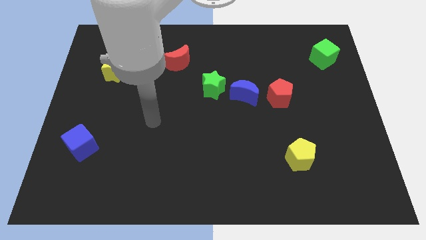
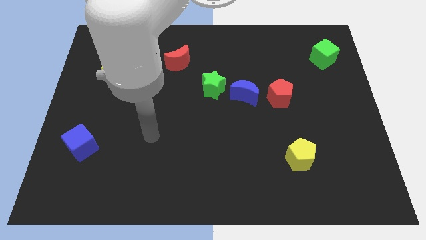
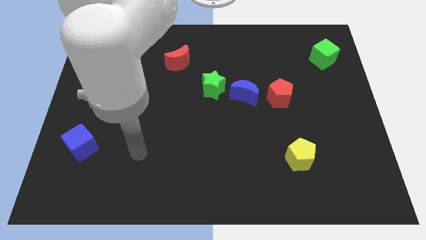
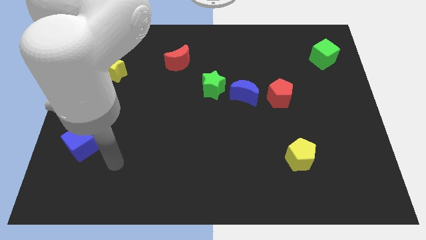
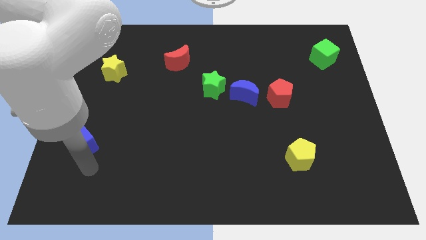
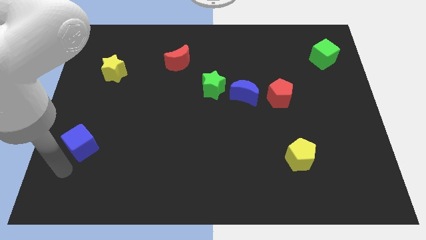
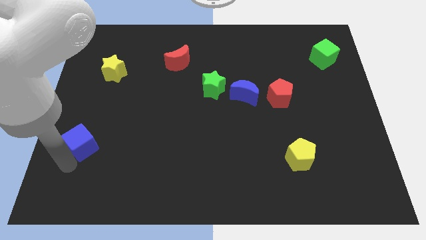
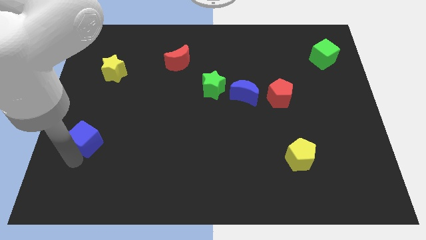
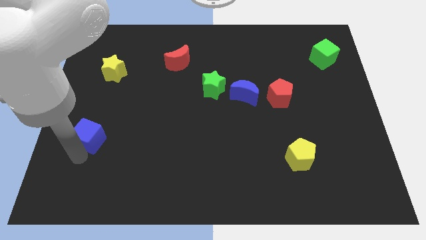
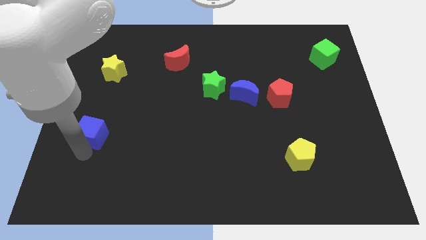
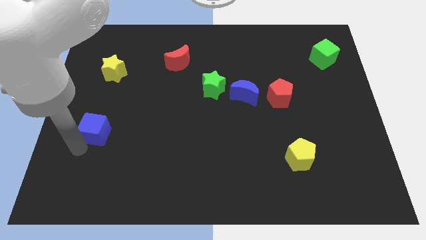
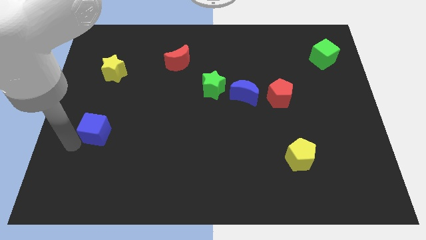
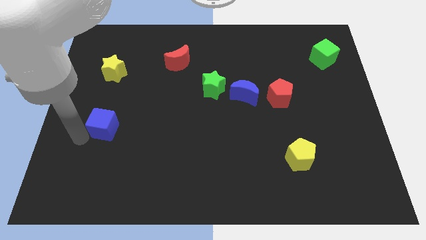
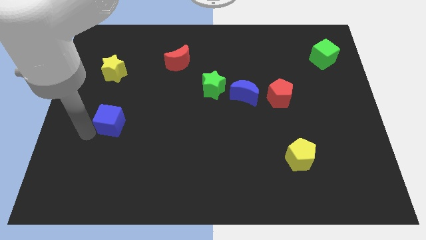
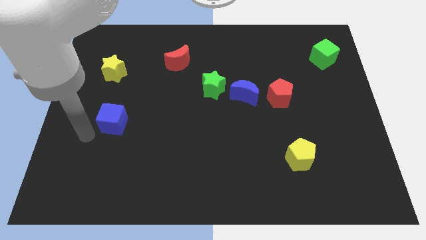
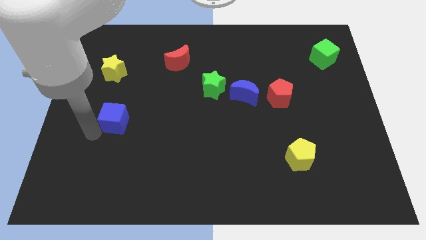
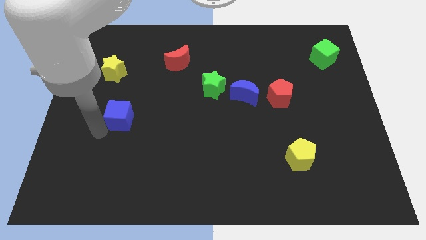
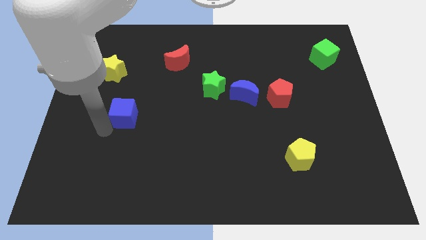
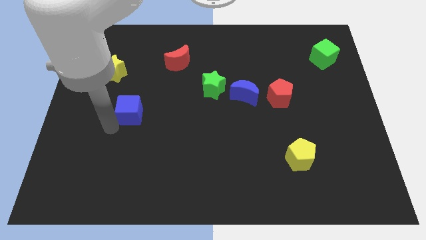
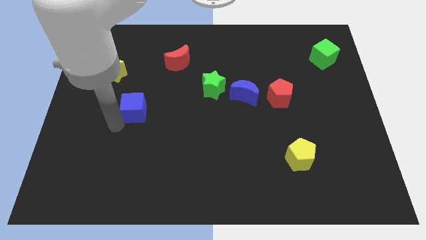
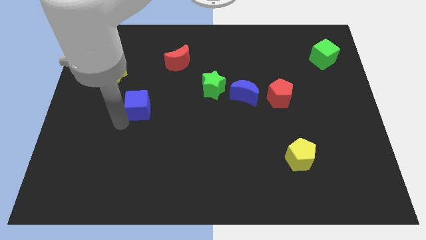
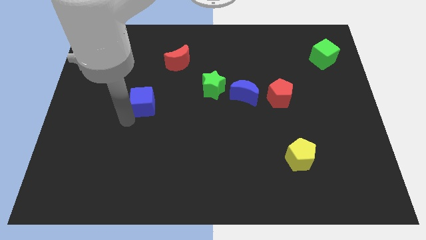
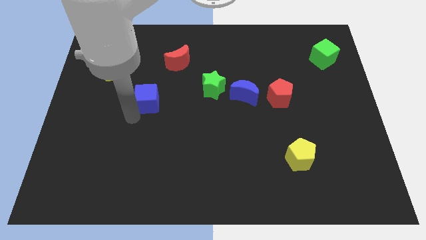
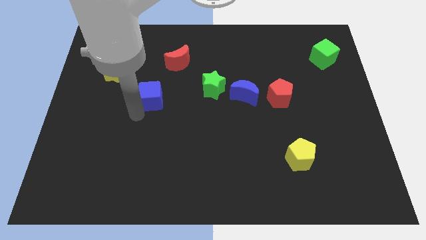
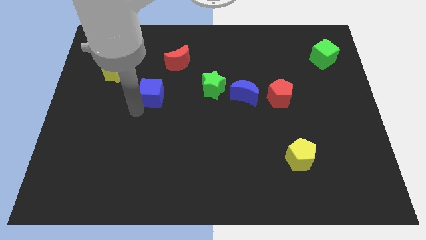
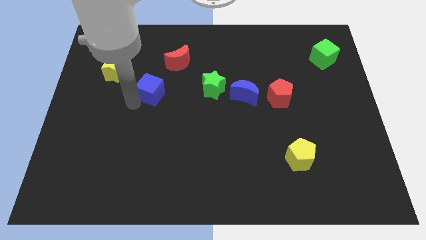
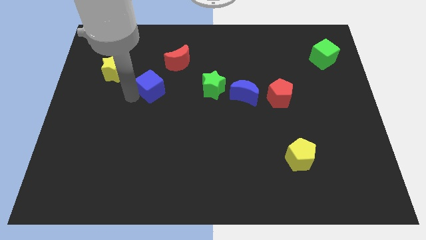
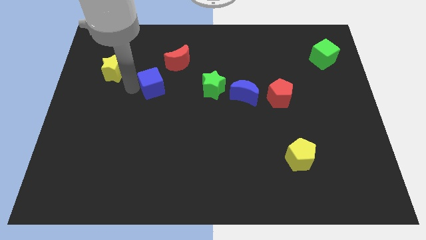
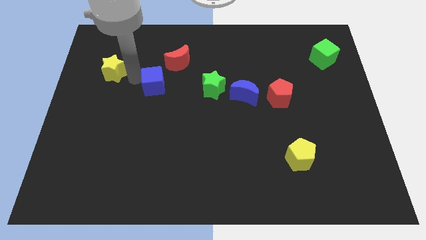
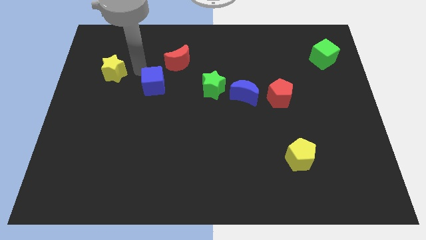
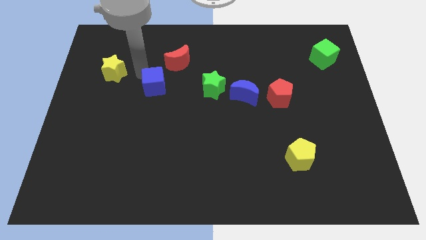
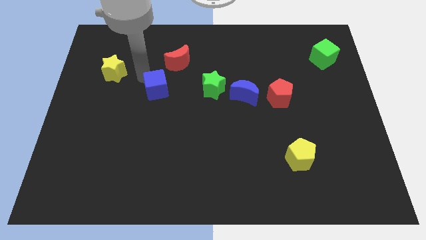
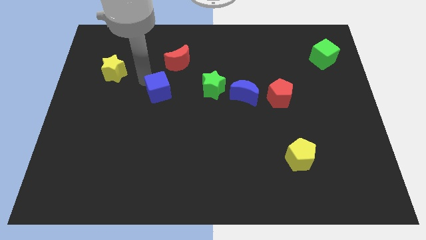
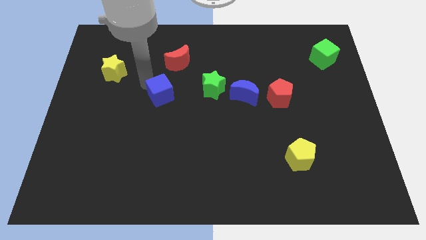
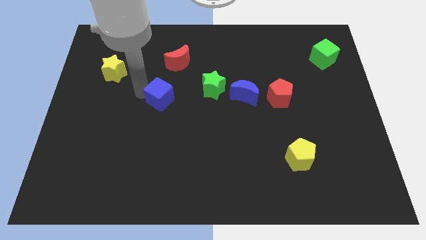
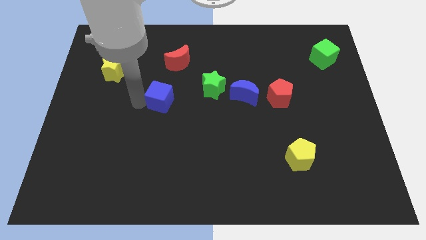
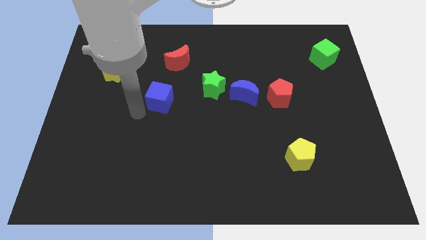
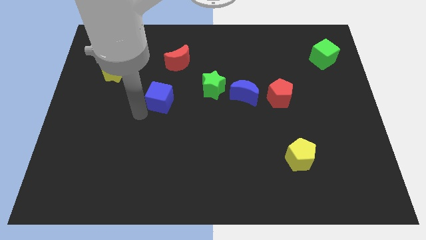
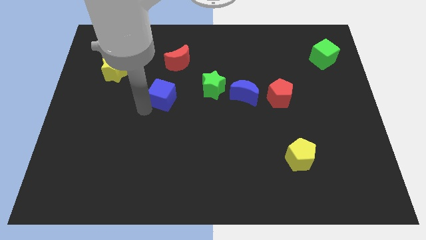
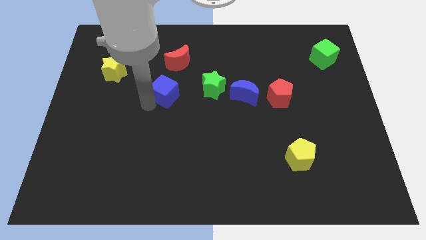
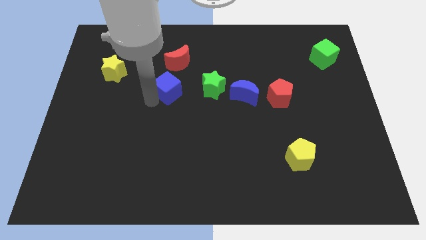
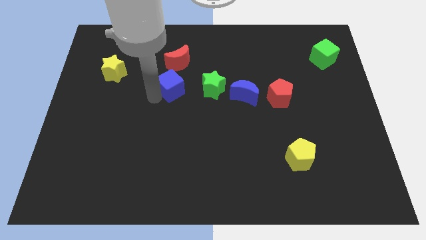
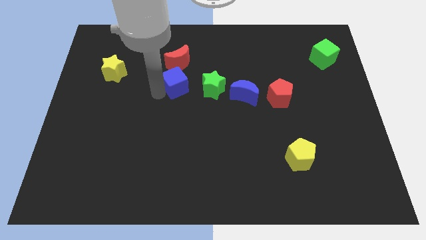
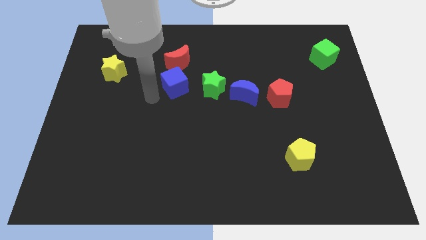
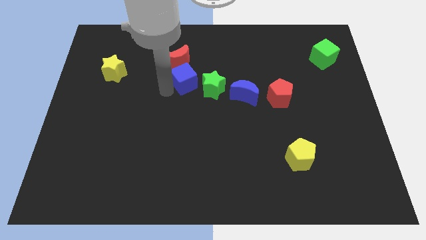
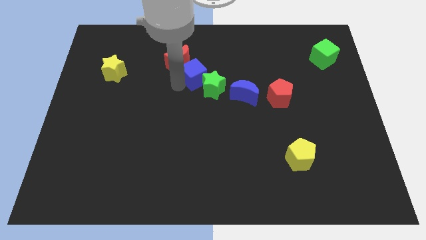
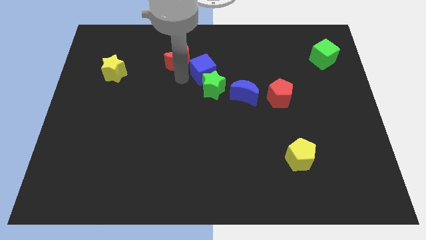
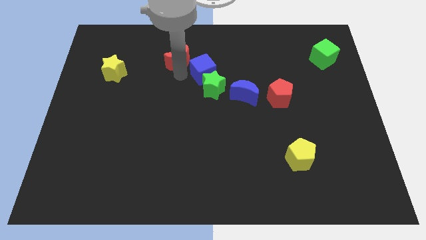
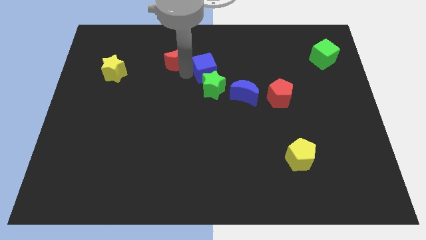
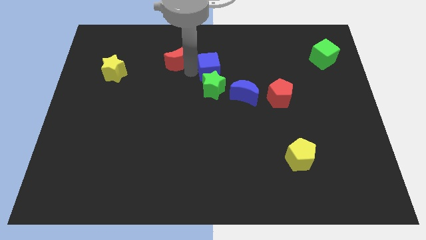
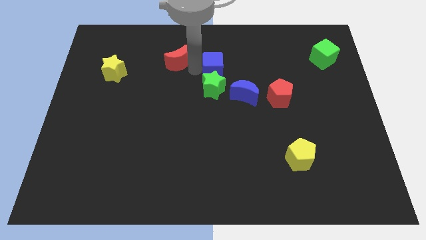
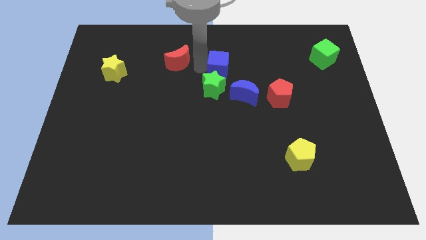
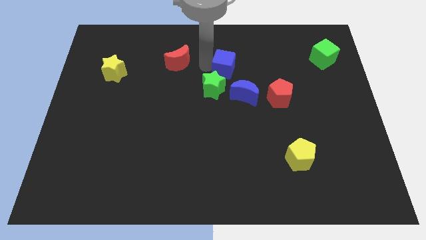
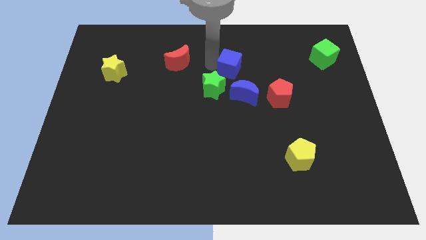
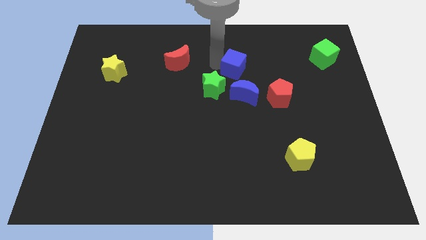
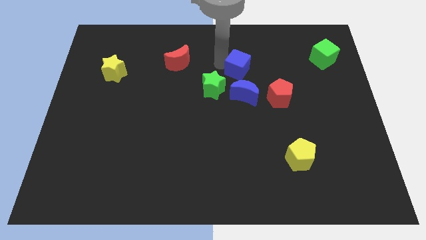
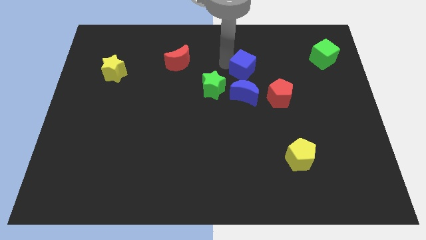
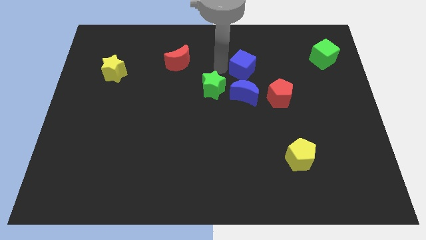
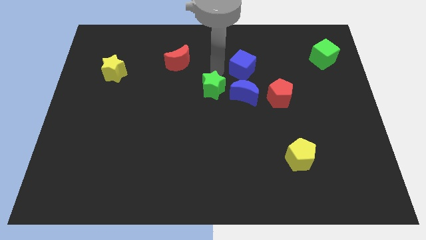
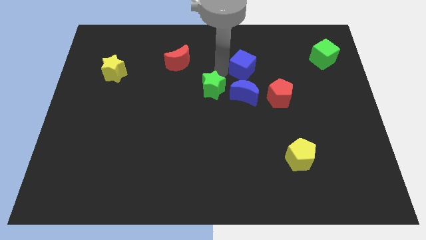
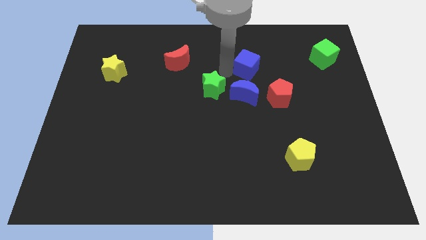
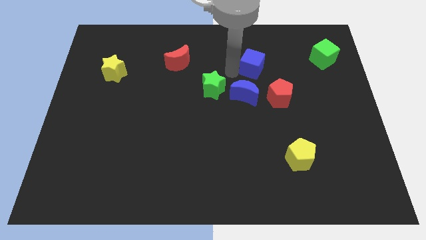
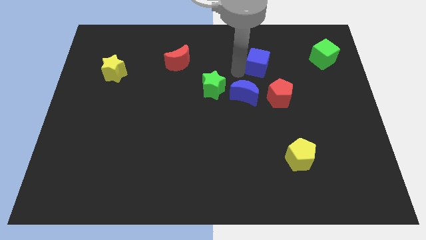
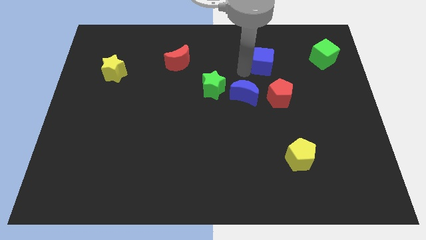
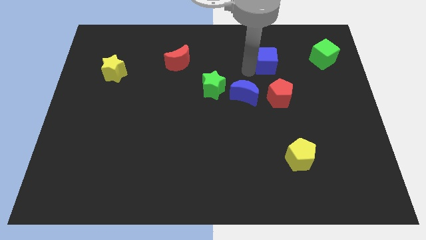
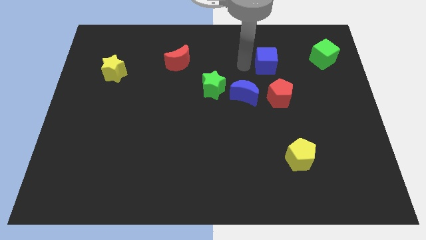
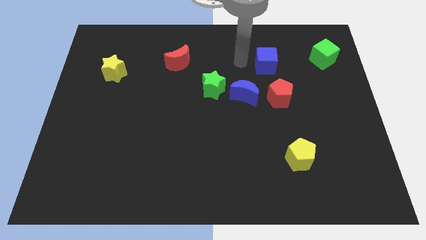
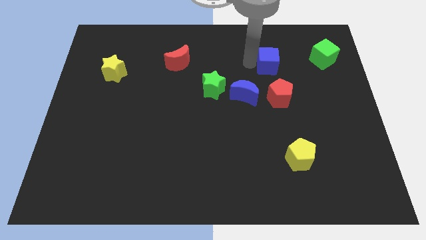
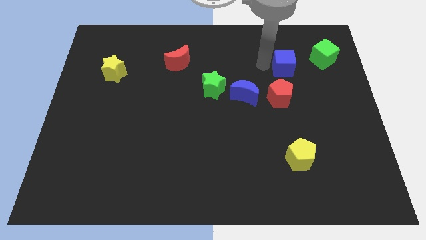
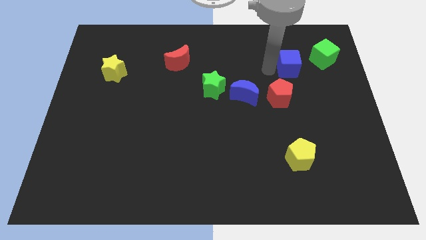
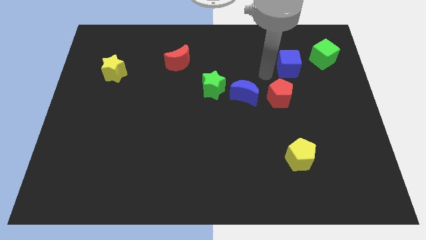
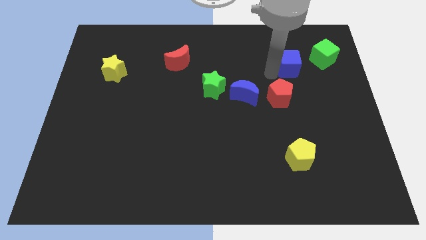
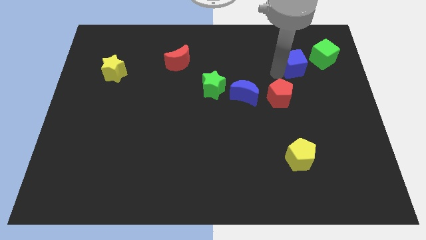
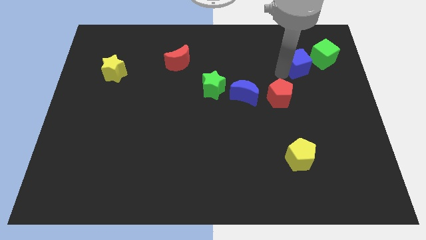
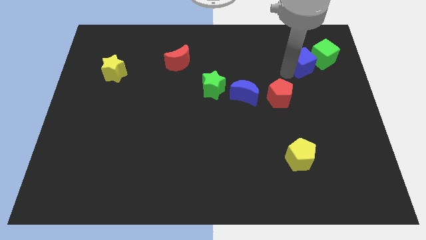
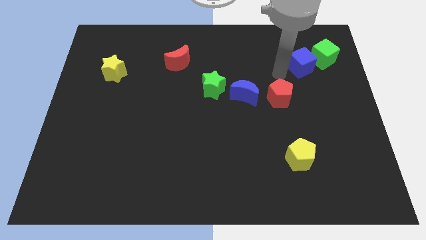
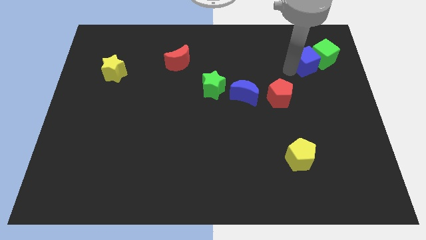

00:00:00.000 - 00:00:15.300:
put the blue cube close to the green cube
